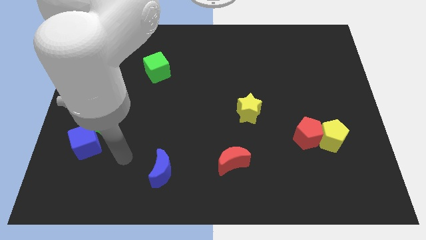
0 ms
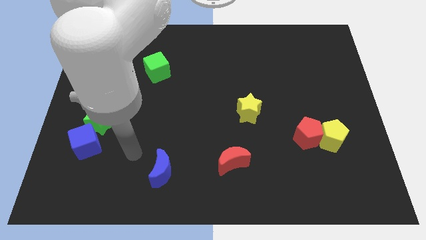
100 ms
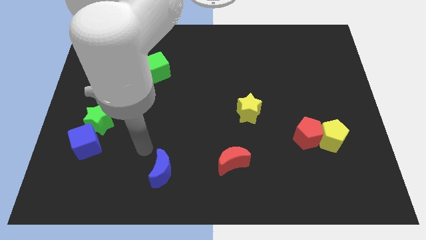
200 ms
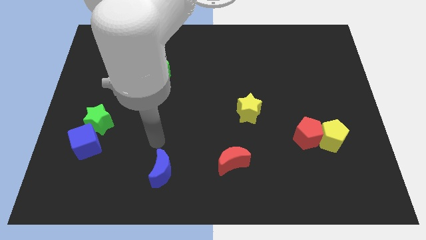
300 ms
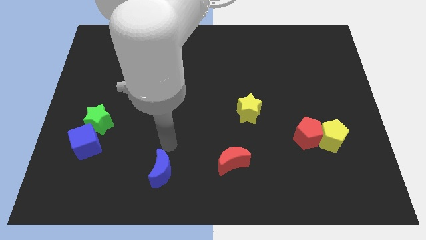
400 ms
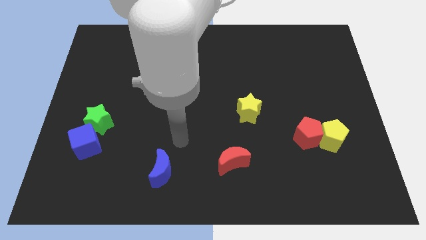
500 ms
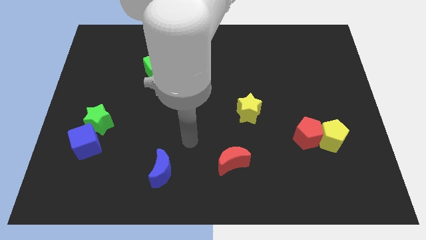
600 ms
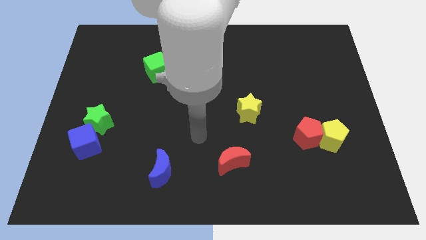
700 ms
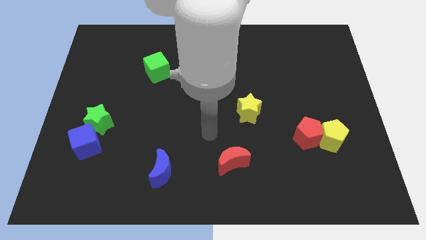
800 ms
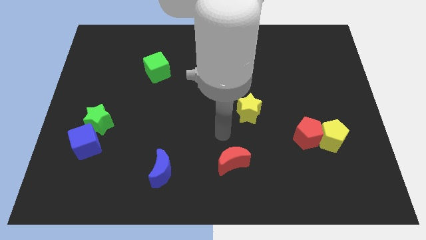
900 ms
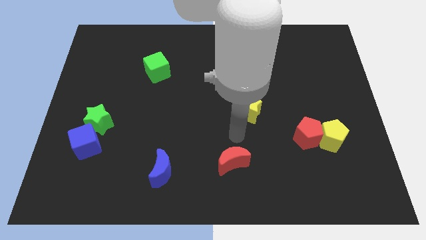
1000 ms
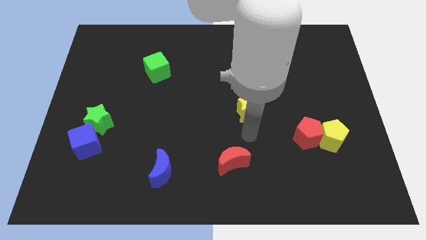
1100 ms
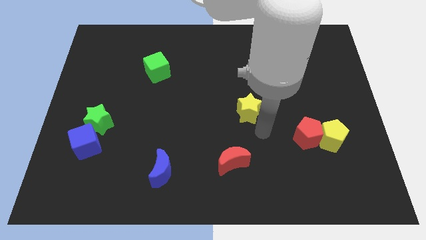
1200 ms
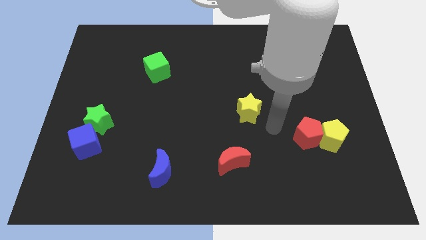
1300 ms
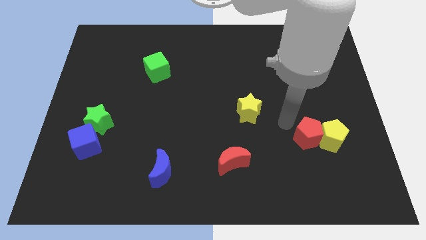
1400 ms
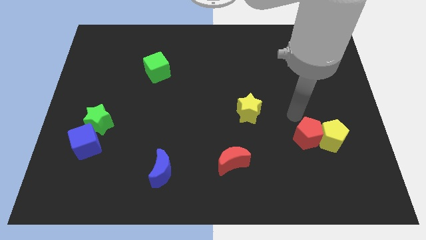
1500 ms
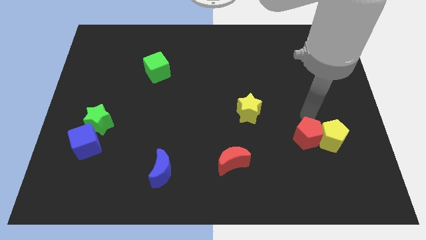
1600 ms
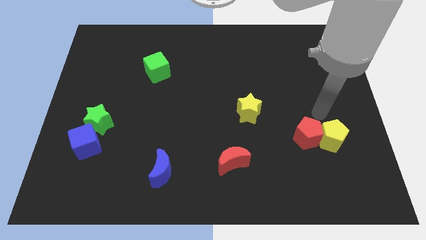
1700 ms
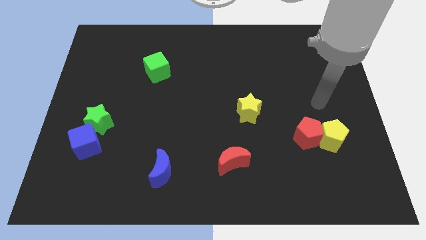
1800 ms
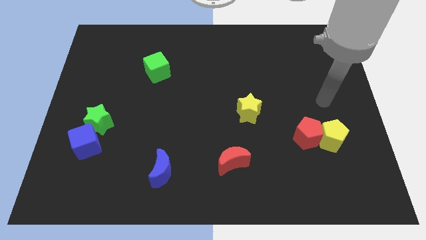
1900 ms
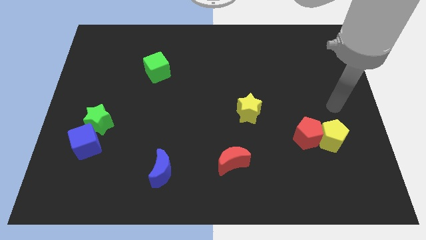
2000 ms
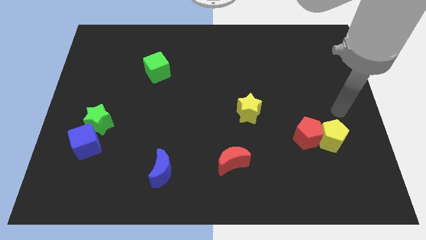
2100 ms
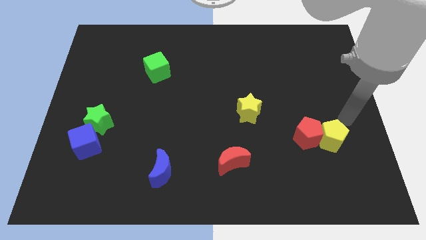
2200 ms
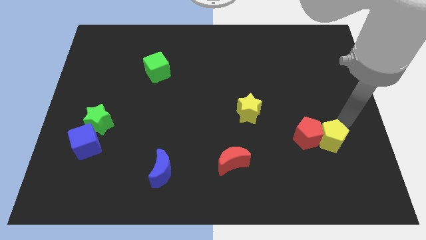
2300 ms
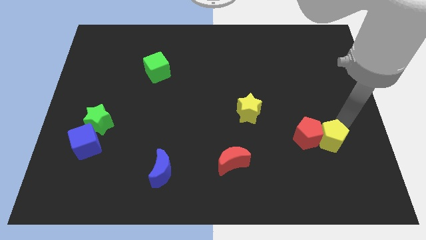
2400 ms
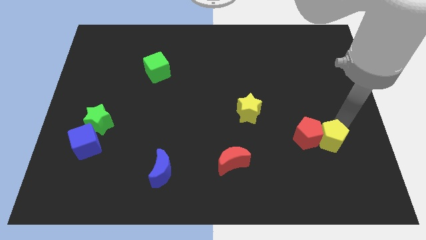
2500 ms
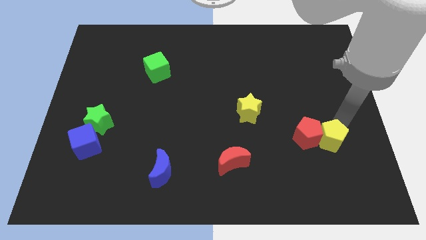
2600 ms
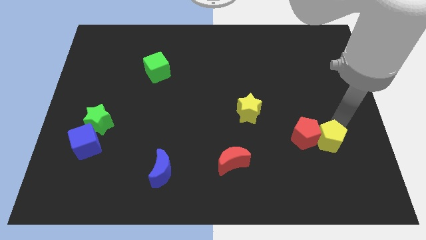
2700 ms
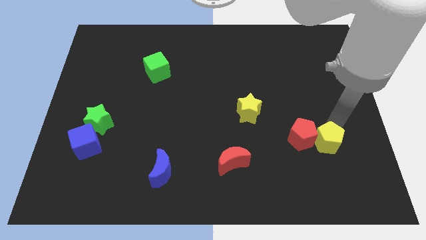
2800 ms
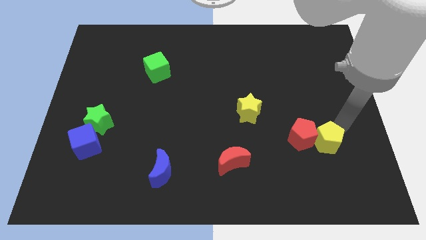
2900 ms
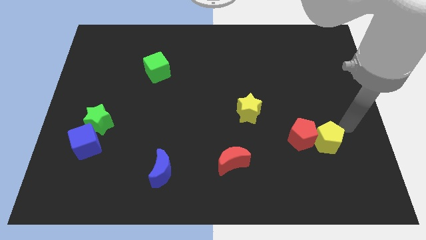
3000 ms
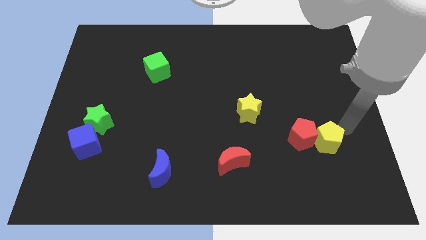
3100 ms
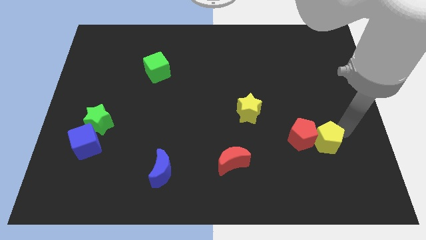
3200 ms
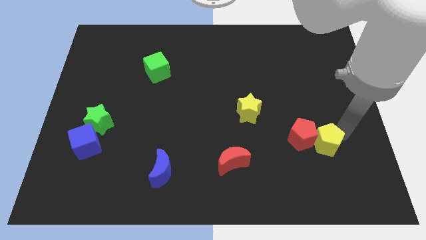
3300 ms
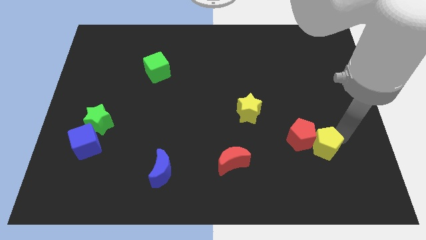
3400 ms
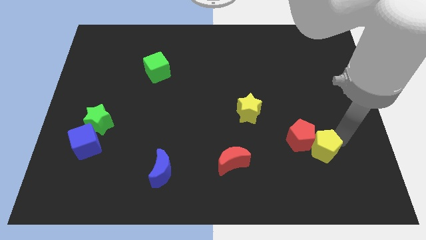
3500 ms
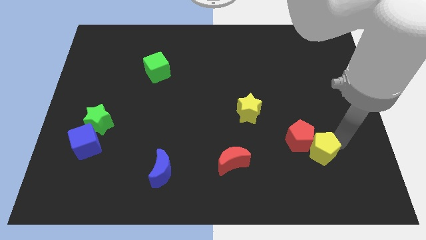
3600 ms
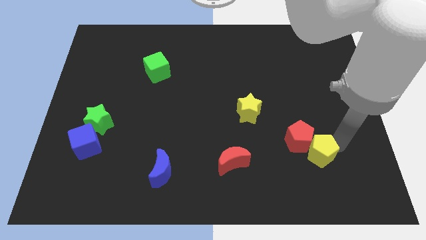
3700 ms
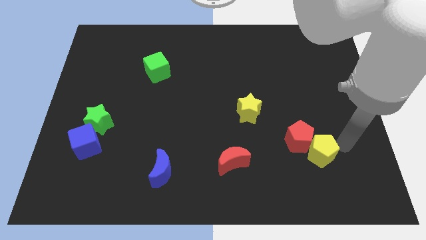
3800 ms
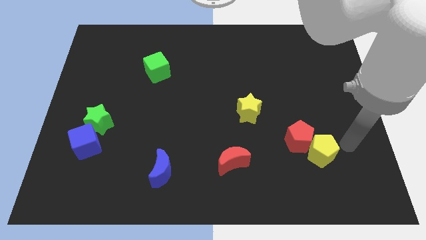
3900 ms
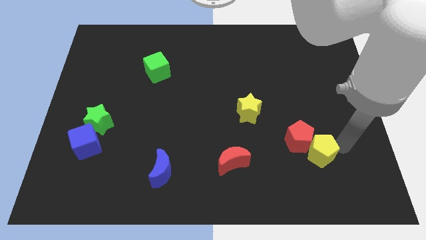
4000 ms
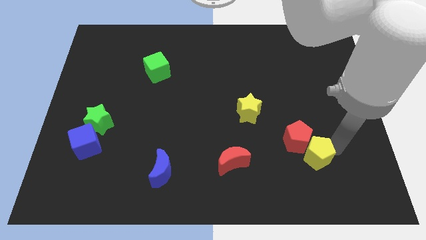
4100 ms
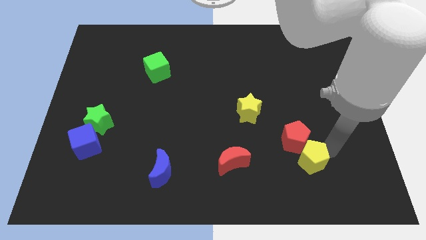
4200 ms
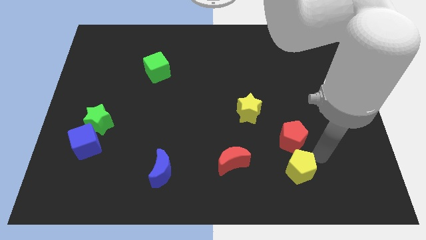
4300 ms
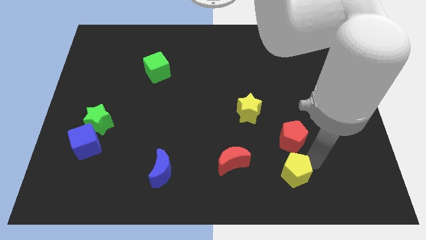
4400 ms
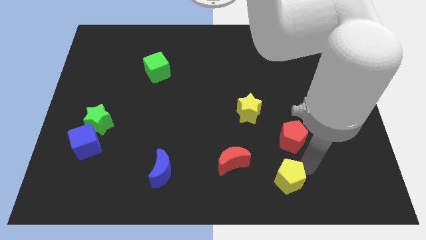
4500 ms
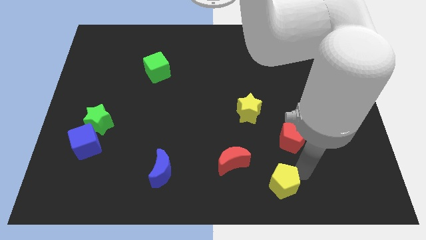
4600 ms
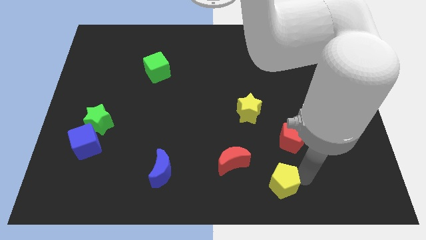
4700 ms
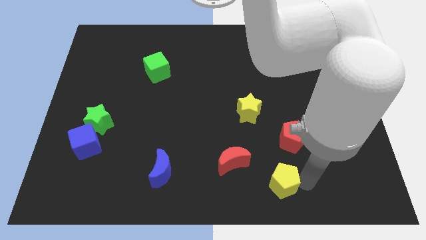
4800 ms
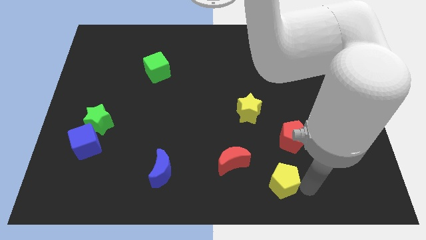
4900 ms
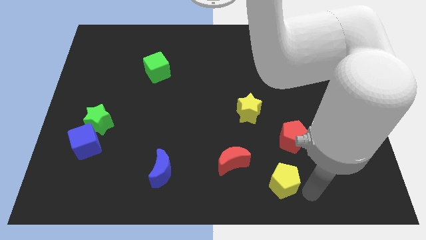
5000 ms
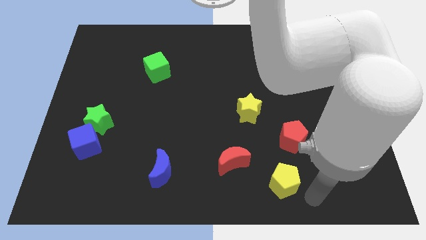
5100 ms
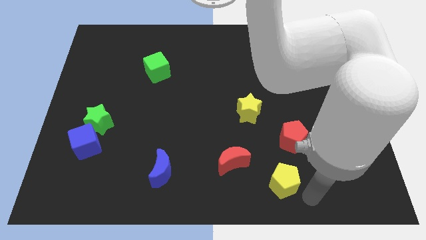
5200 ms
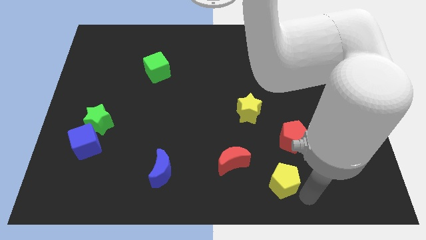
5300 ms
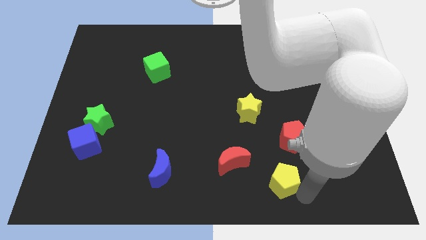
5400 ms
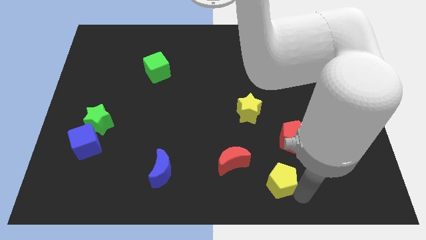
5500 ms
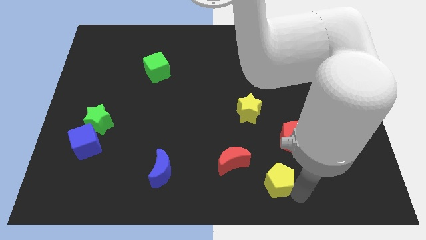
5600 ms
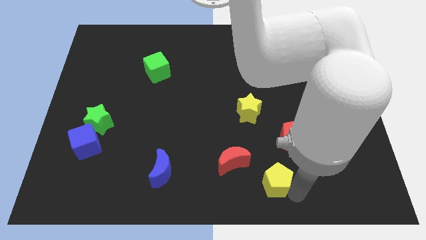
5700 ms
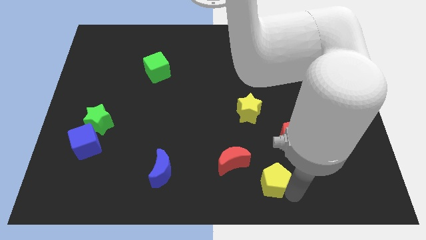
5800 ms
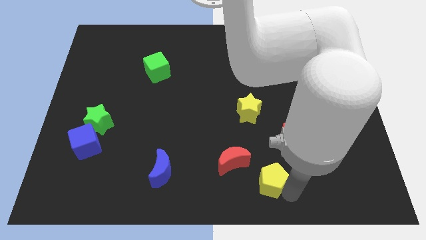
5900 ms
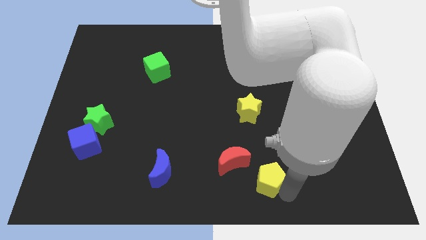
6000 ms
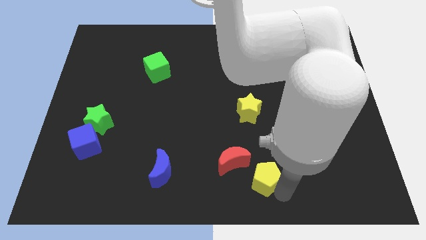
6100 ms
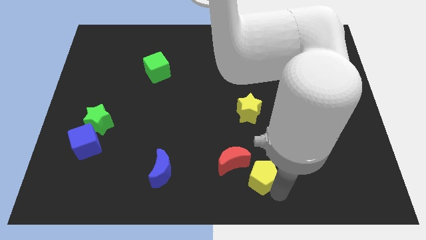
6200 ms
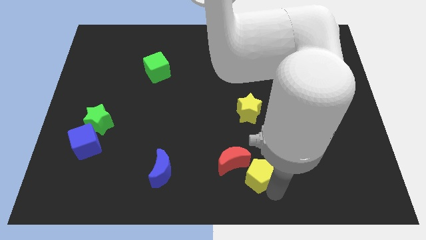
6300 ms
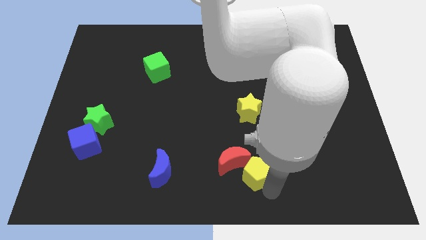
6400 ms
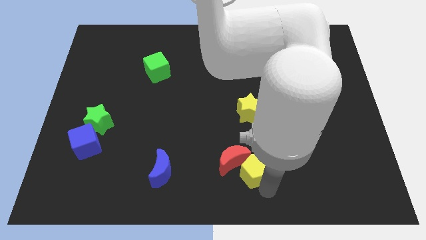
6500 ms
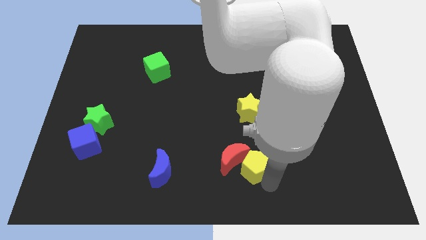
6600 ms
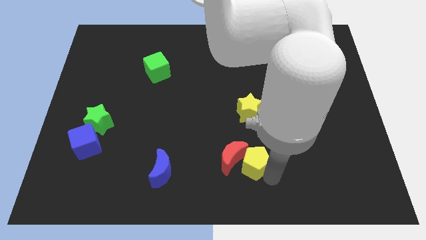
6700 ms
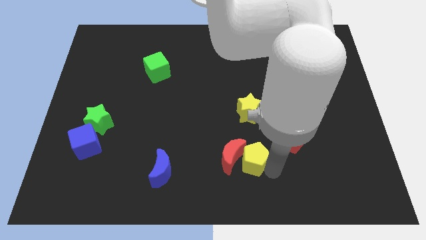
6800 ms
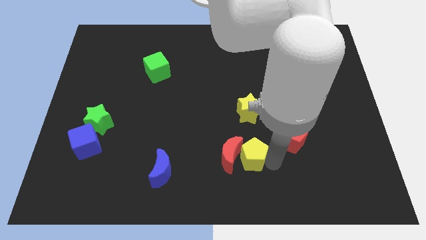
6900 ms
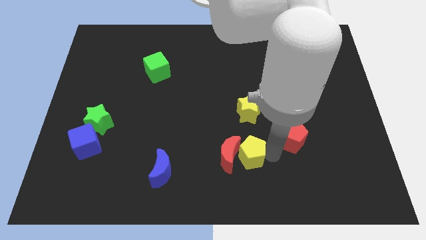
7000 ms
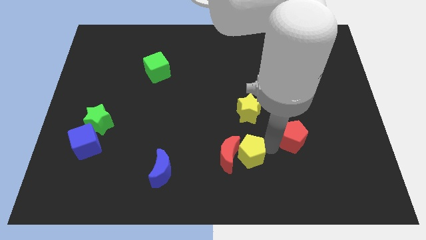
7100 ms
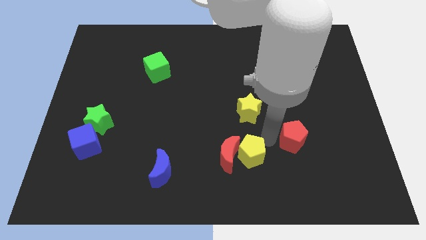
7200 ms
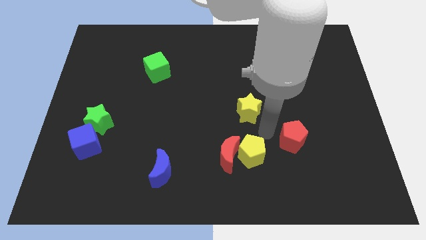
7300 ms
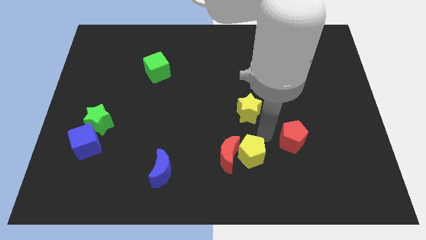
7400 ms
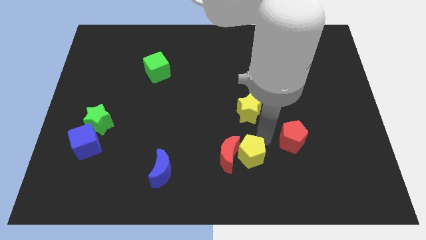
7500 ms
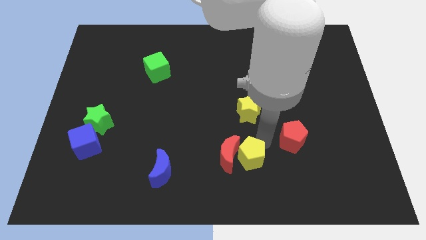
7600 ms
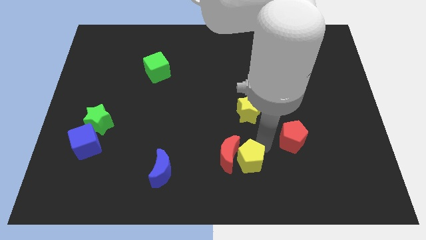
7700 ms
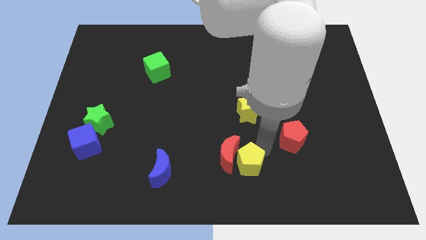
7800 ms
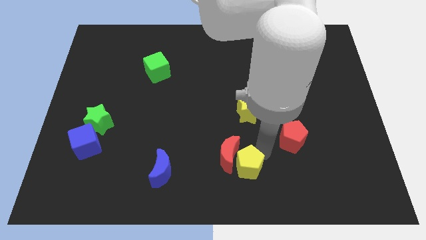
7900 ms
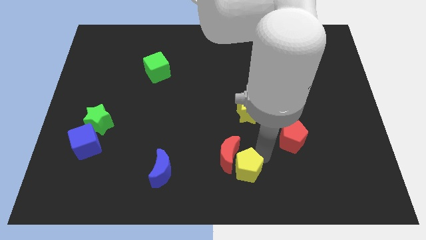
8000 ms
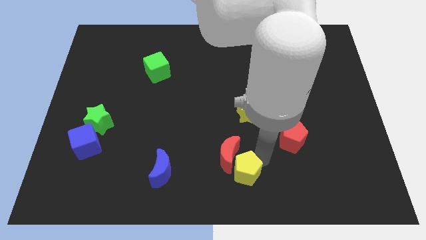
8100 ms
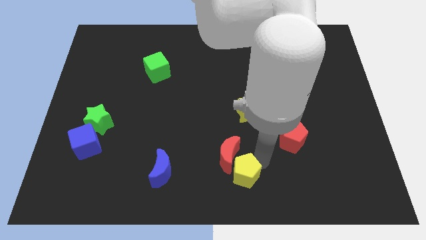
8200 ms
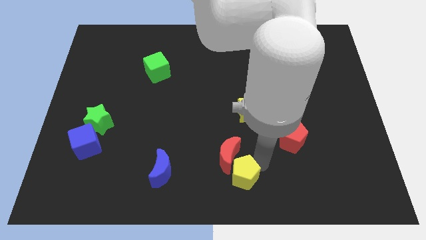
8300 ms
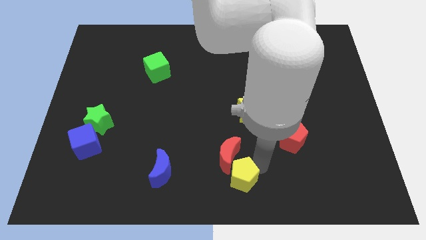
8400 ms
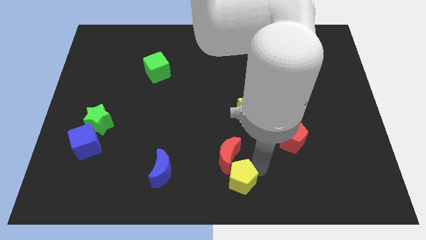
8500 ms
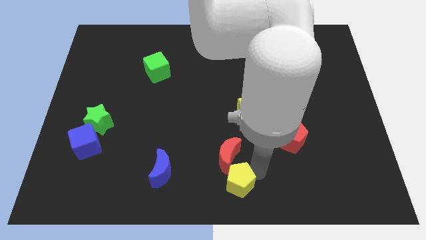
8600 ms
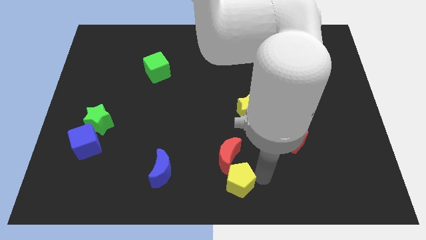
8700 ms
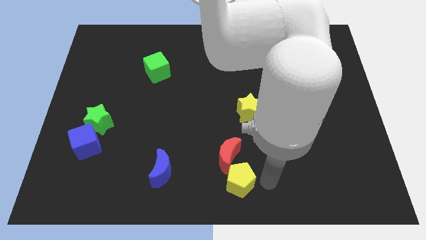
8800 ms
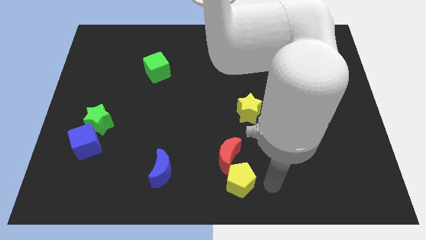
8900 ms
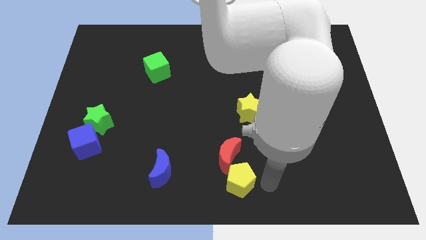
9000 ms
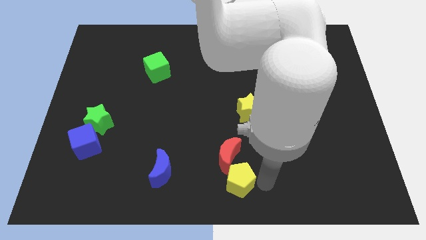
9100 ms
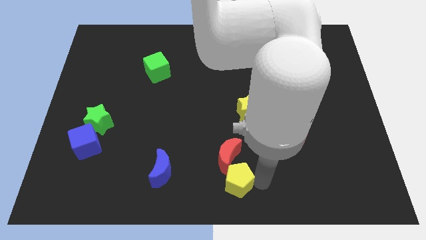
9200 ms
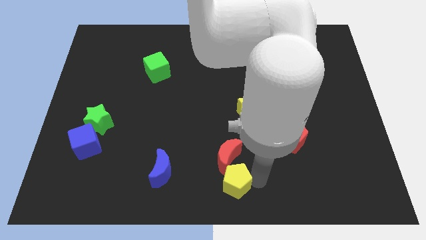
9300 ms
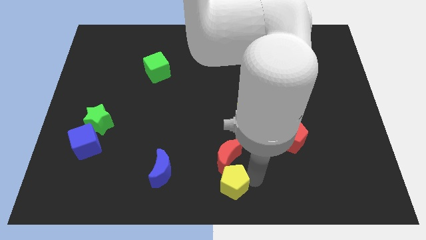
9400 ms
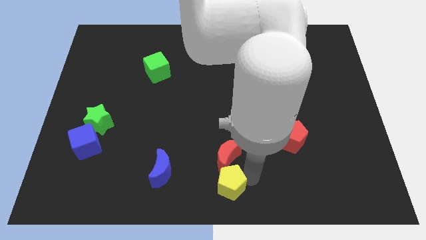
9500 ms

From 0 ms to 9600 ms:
put the yellow pentagon diagonally down and to the left of the red moon
